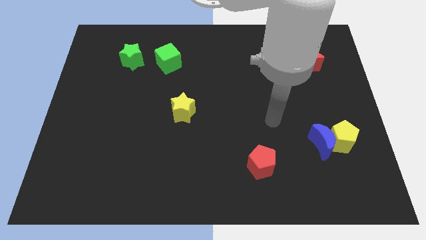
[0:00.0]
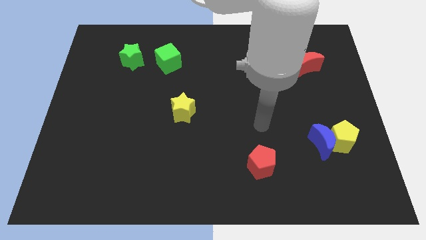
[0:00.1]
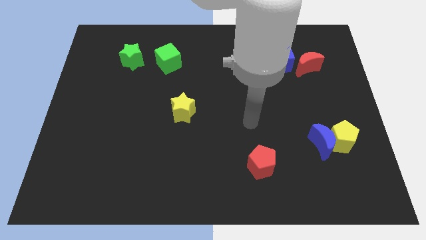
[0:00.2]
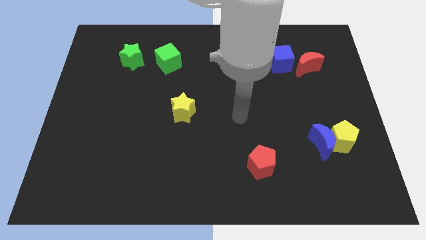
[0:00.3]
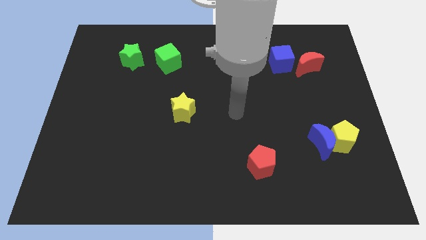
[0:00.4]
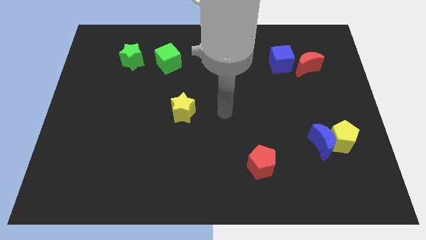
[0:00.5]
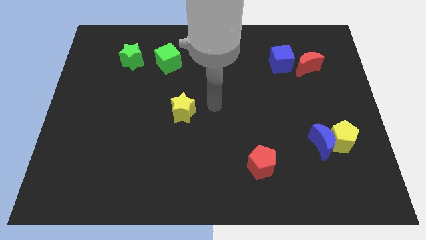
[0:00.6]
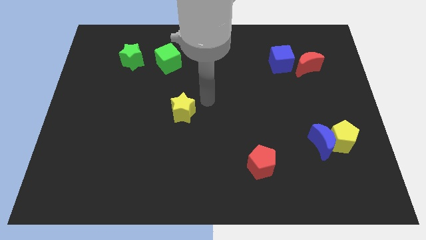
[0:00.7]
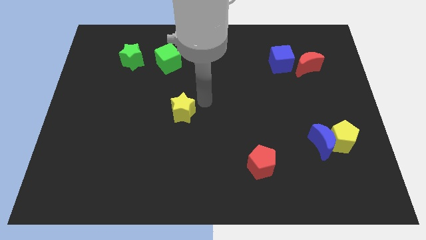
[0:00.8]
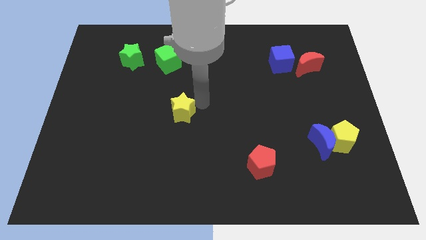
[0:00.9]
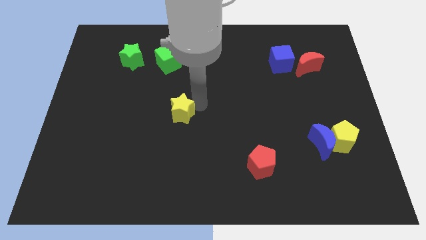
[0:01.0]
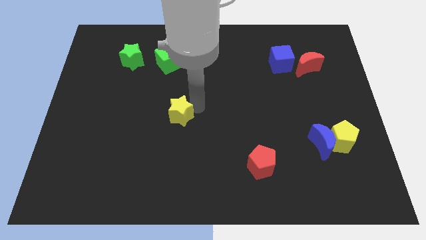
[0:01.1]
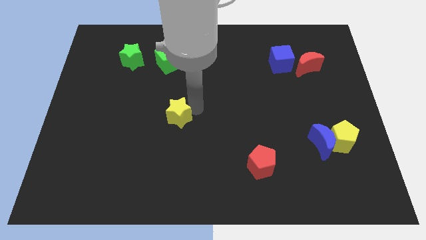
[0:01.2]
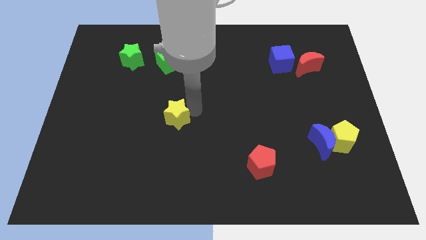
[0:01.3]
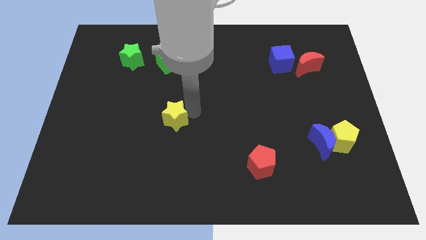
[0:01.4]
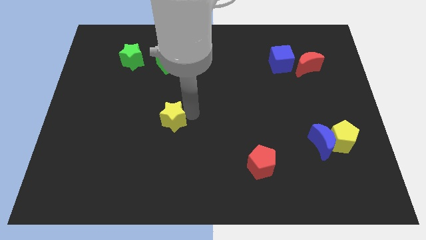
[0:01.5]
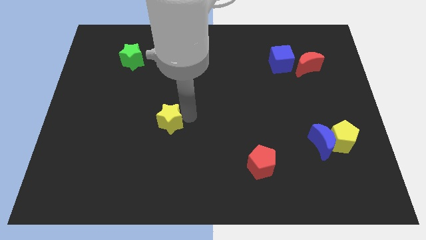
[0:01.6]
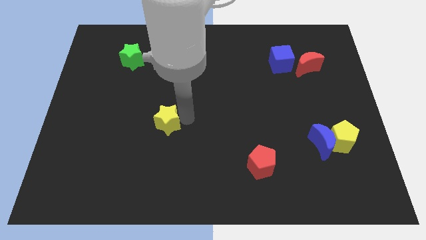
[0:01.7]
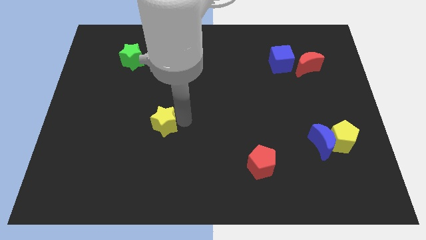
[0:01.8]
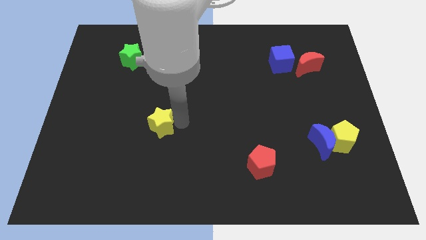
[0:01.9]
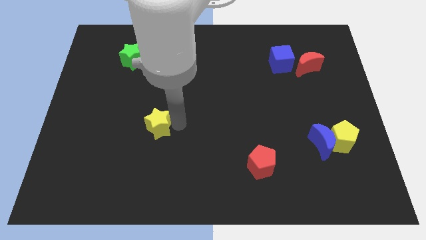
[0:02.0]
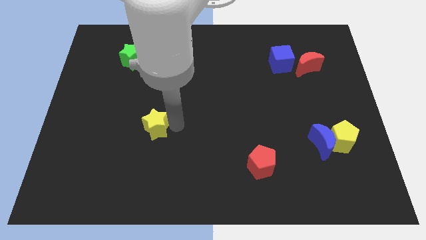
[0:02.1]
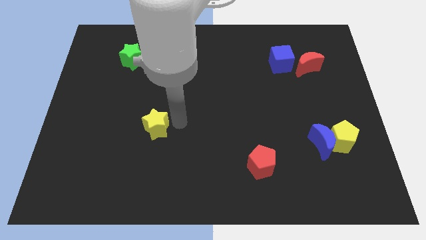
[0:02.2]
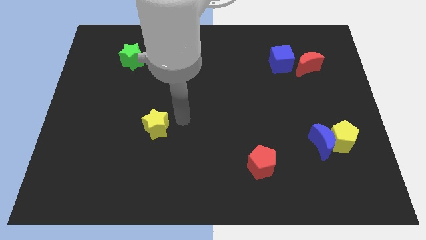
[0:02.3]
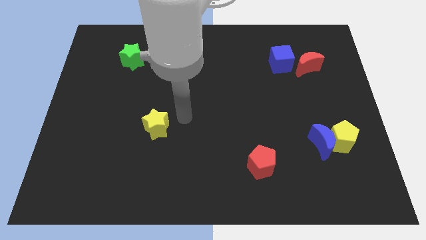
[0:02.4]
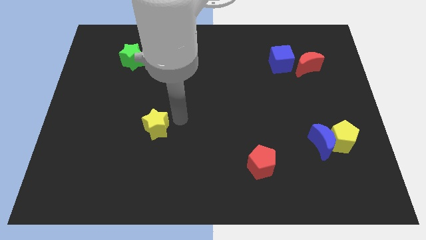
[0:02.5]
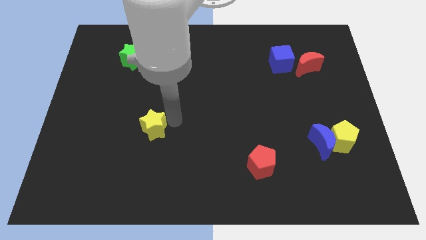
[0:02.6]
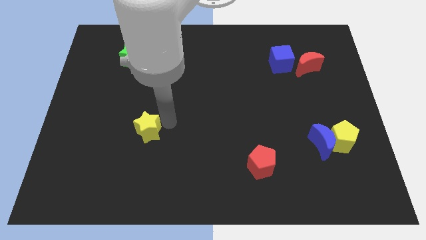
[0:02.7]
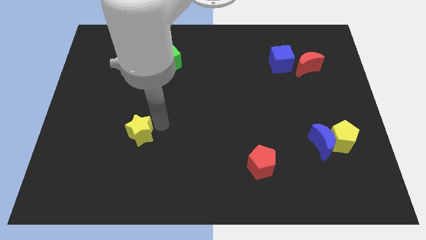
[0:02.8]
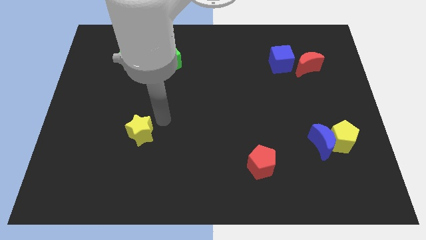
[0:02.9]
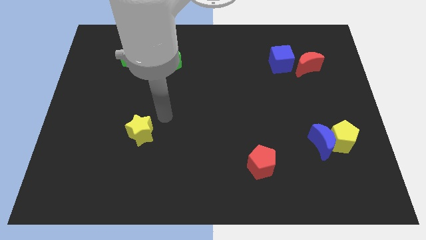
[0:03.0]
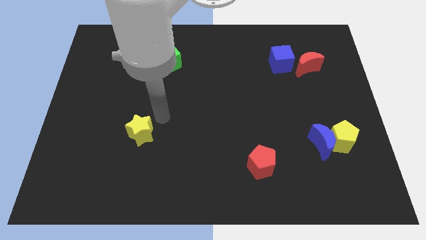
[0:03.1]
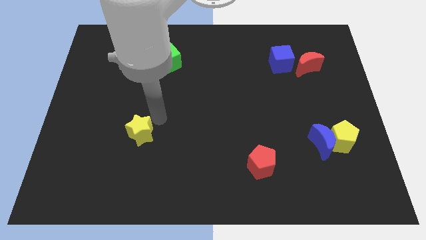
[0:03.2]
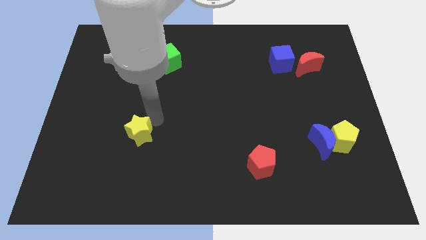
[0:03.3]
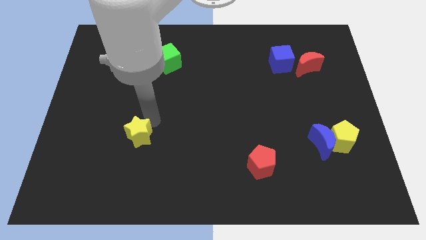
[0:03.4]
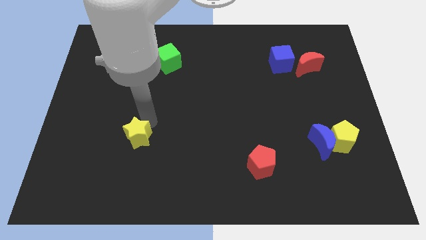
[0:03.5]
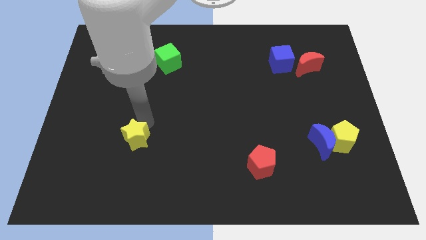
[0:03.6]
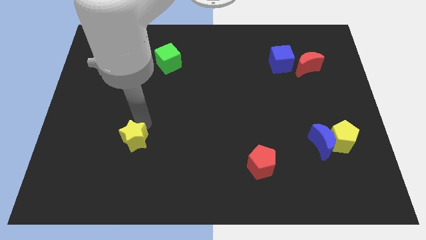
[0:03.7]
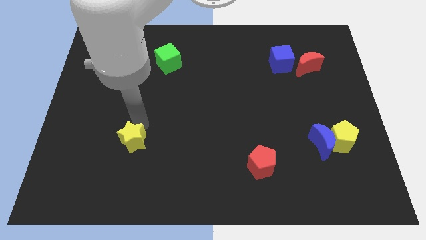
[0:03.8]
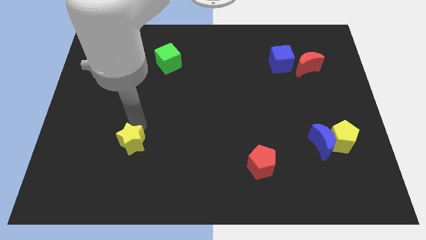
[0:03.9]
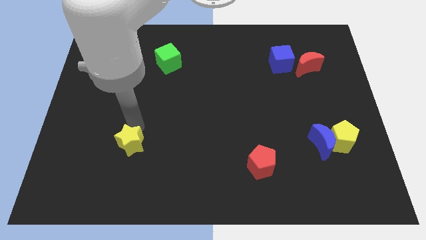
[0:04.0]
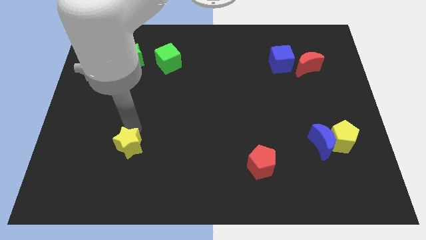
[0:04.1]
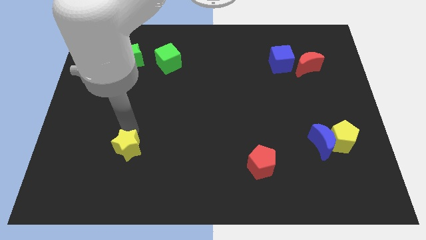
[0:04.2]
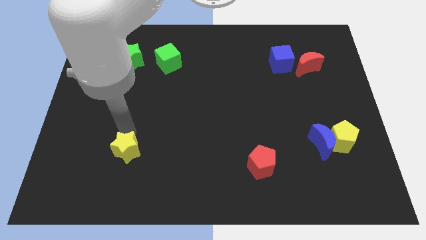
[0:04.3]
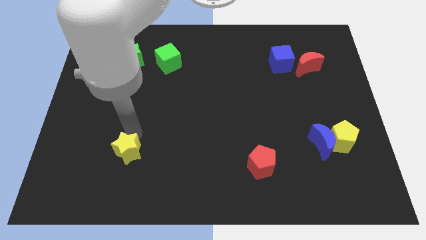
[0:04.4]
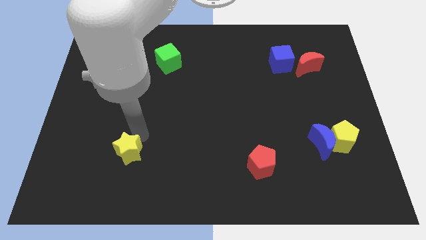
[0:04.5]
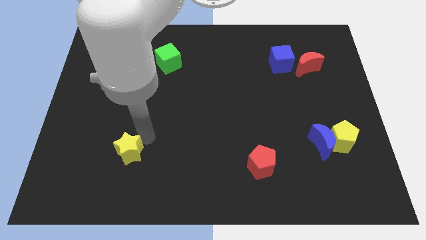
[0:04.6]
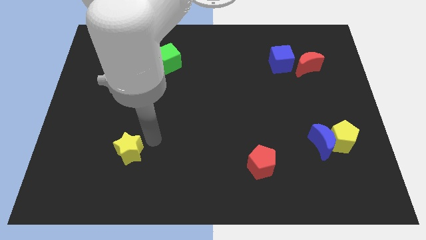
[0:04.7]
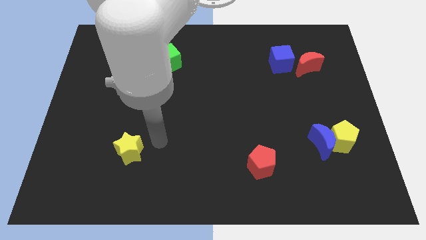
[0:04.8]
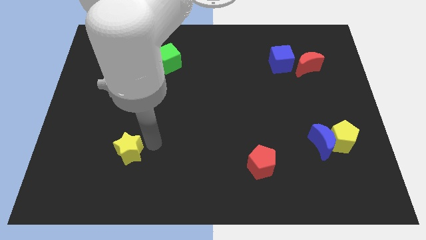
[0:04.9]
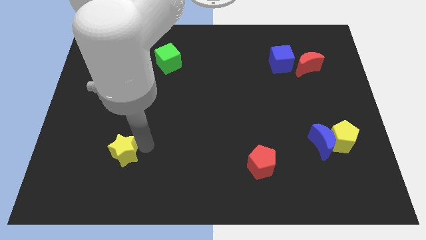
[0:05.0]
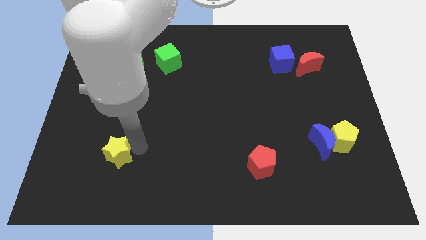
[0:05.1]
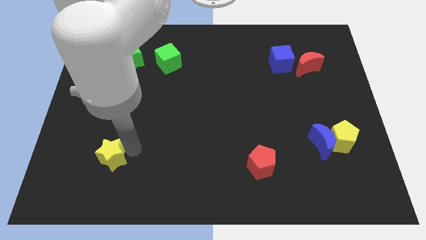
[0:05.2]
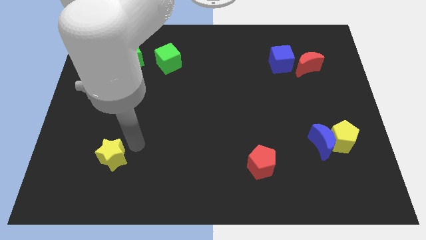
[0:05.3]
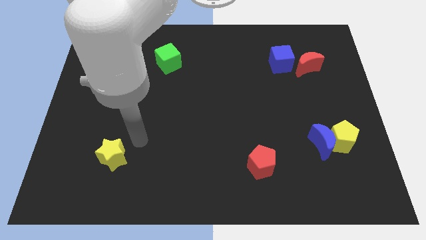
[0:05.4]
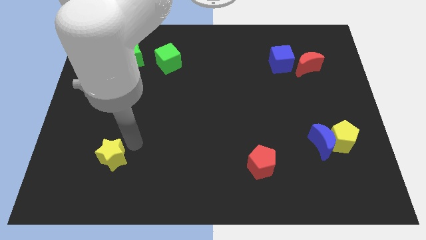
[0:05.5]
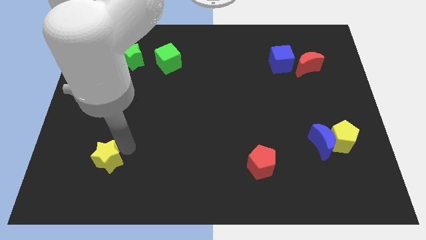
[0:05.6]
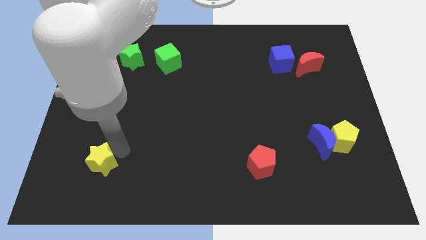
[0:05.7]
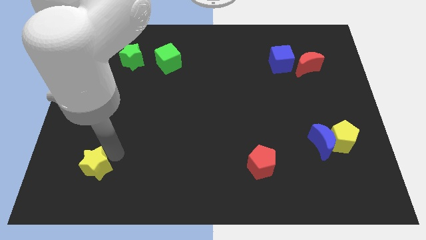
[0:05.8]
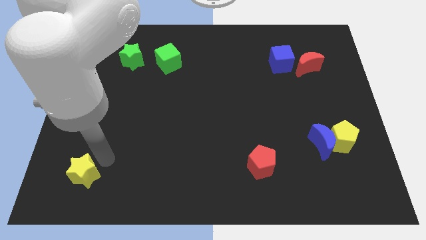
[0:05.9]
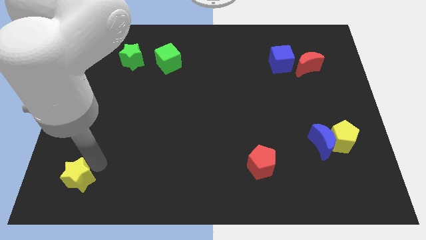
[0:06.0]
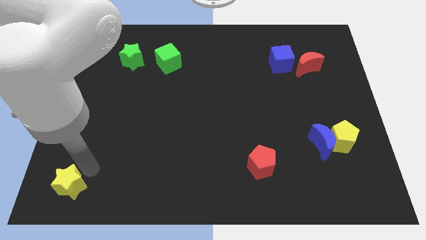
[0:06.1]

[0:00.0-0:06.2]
put the yellow star to the bottom left corner
